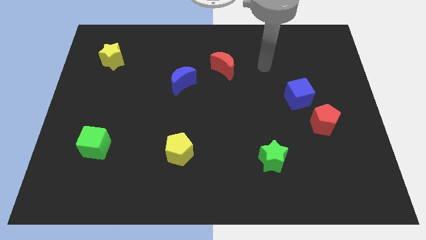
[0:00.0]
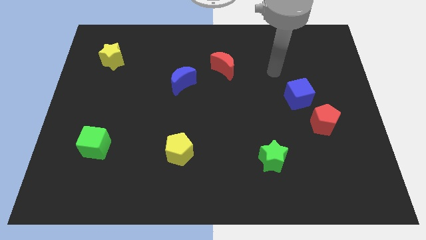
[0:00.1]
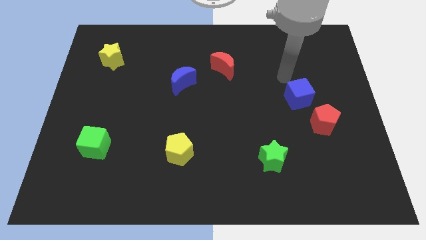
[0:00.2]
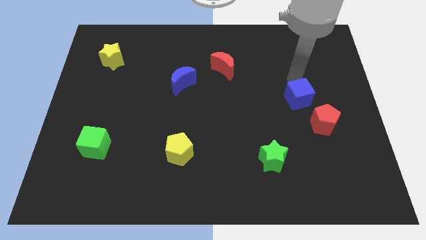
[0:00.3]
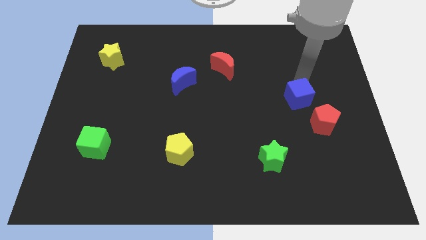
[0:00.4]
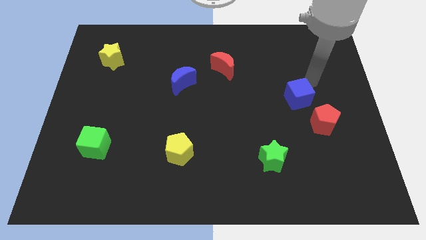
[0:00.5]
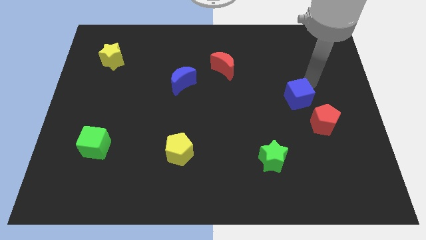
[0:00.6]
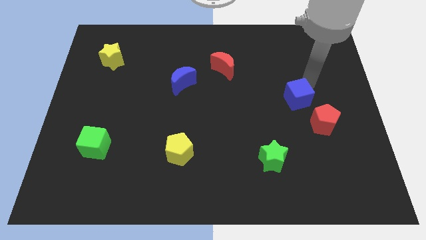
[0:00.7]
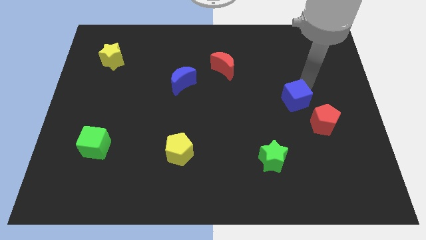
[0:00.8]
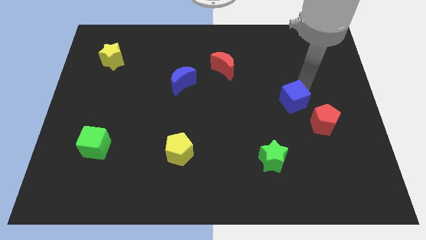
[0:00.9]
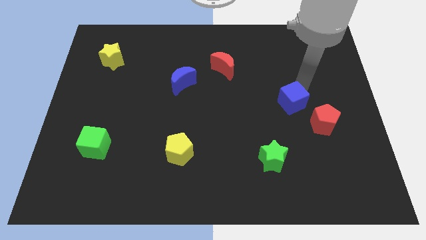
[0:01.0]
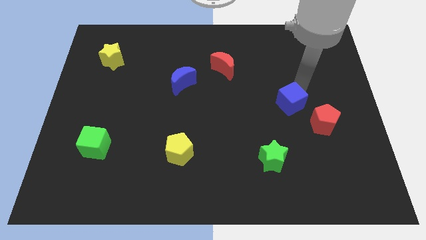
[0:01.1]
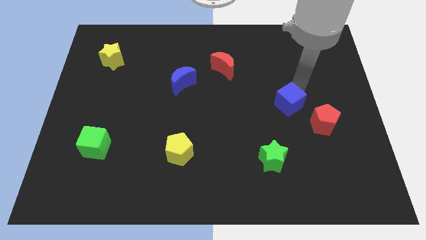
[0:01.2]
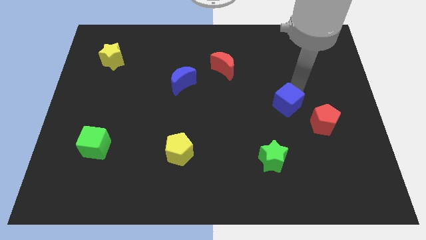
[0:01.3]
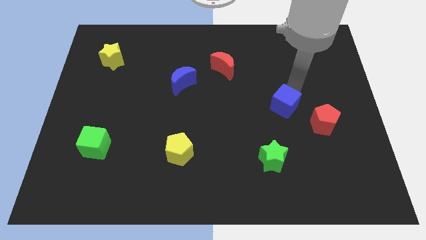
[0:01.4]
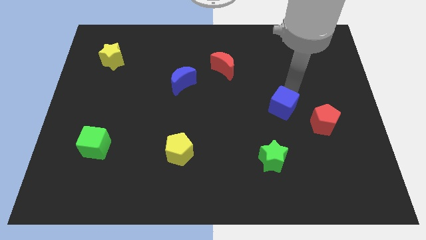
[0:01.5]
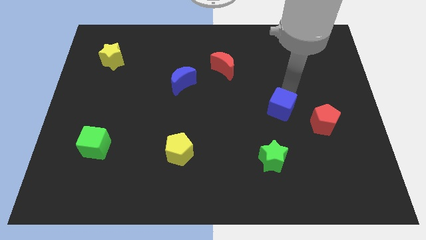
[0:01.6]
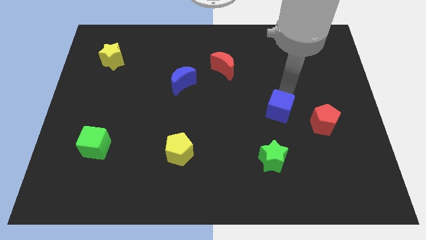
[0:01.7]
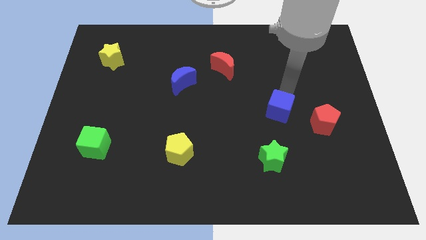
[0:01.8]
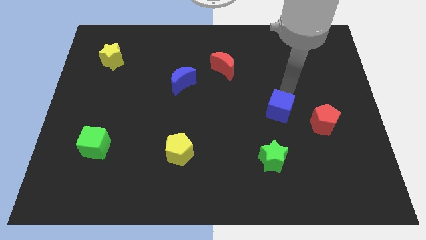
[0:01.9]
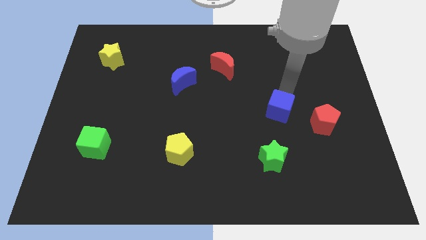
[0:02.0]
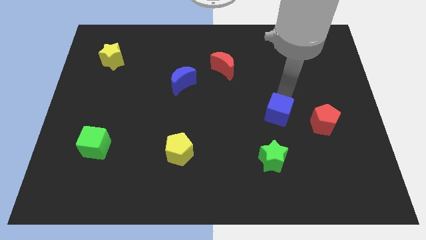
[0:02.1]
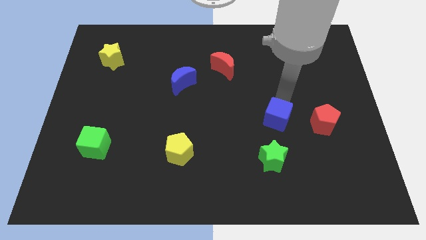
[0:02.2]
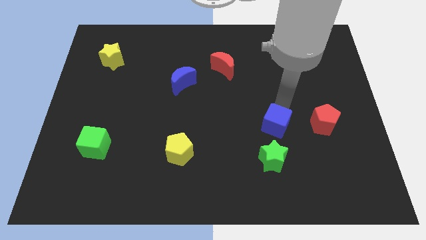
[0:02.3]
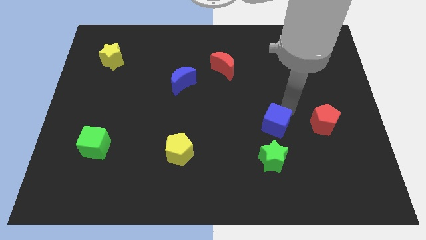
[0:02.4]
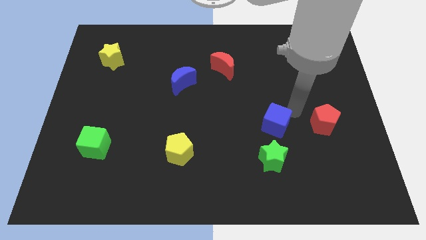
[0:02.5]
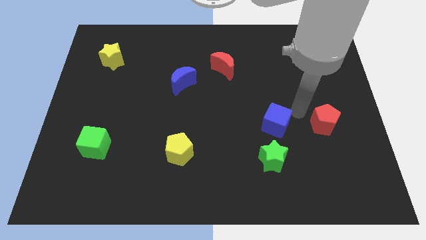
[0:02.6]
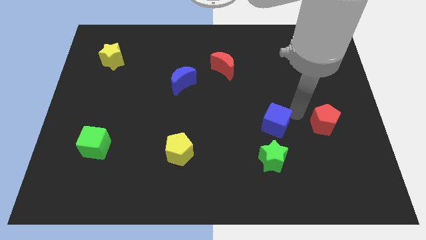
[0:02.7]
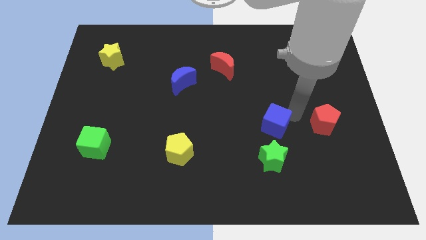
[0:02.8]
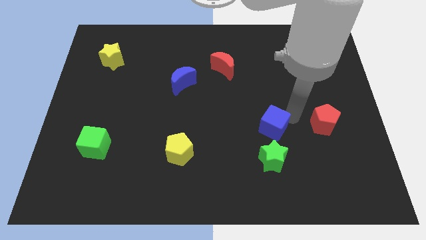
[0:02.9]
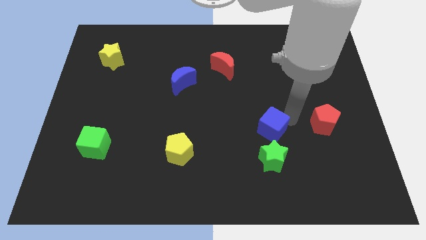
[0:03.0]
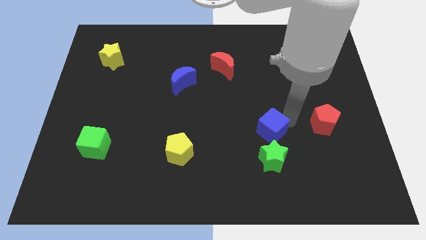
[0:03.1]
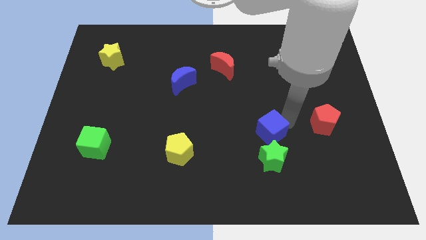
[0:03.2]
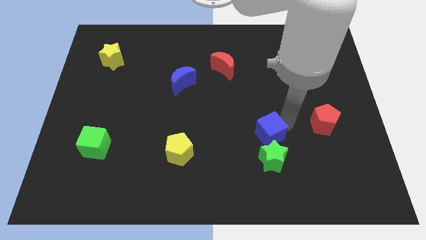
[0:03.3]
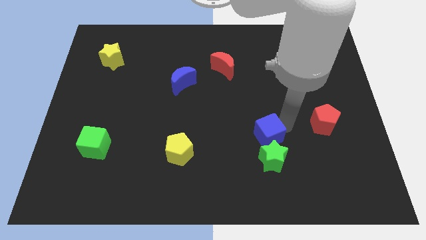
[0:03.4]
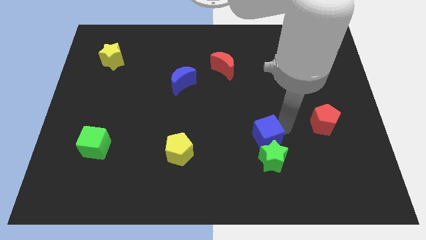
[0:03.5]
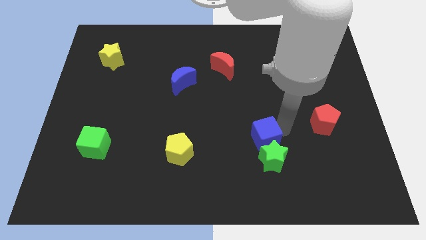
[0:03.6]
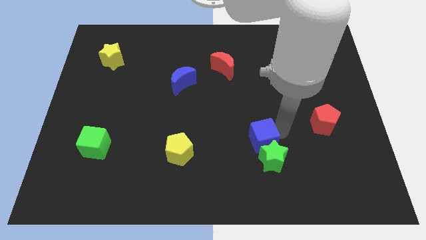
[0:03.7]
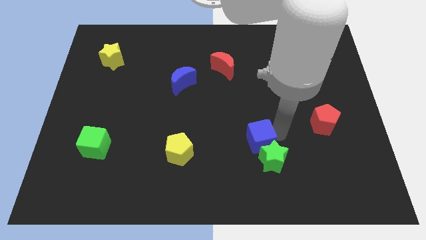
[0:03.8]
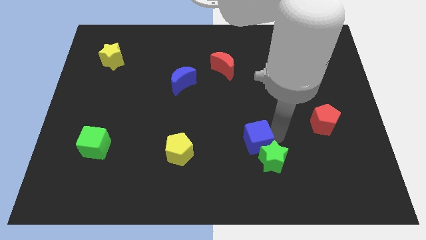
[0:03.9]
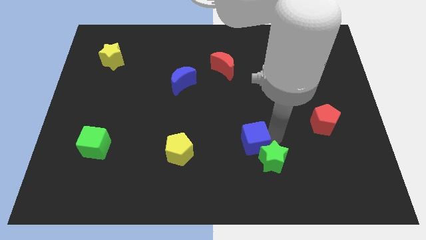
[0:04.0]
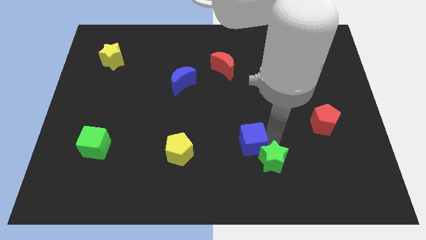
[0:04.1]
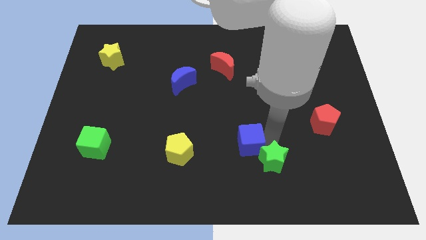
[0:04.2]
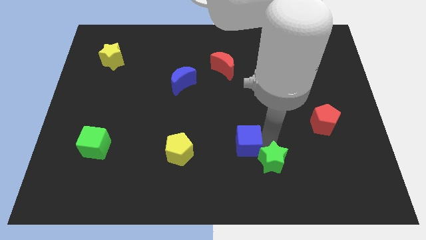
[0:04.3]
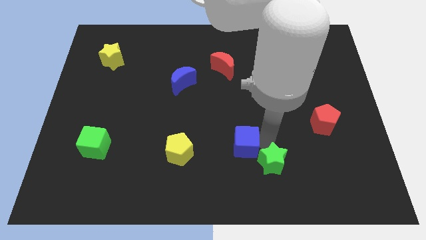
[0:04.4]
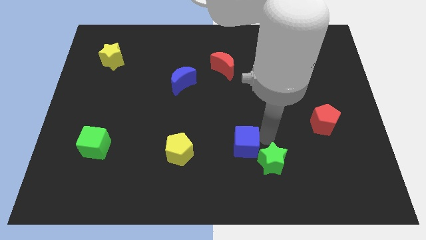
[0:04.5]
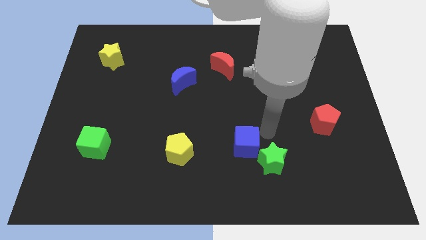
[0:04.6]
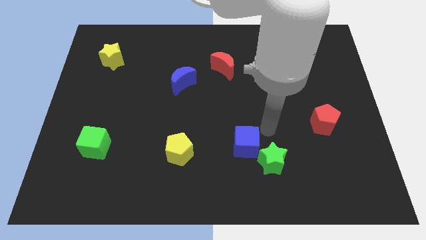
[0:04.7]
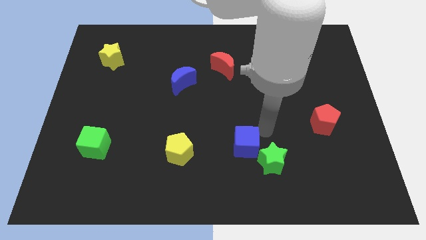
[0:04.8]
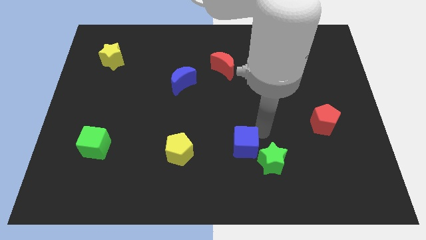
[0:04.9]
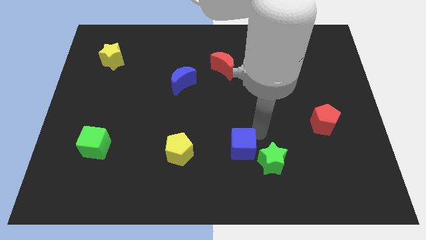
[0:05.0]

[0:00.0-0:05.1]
move the blue cube down and to the left

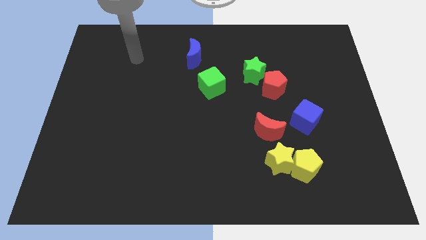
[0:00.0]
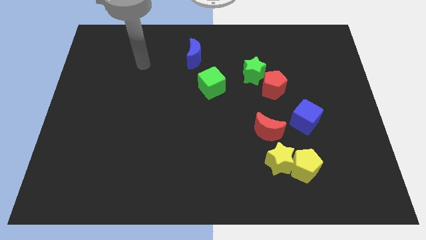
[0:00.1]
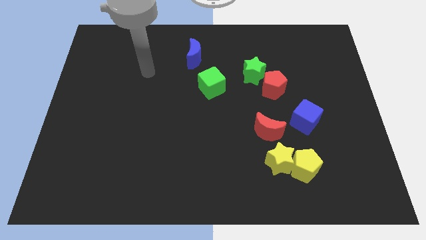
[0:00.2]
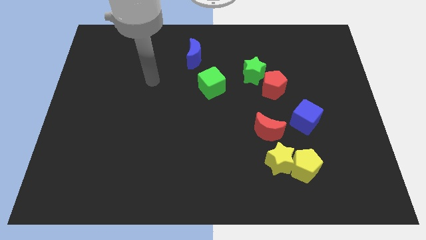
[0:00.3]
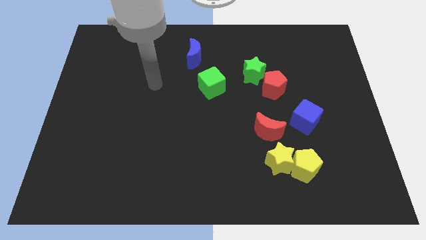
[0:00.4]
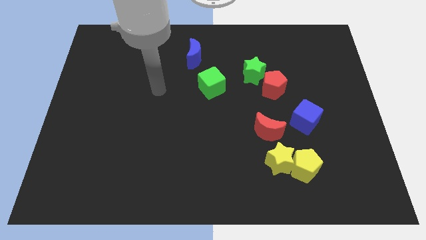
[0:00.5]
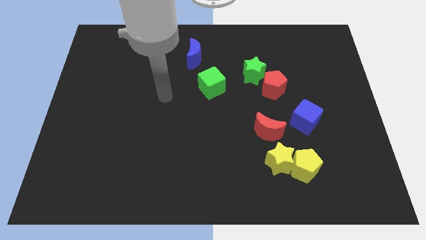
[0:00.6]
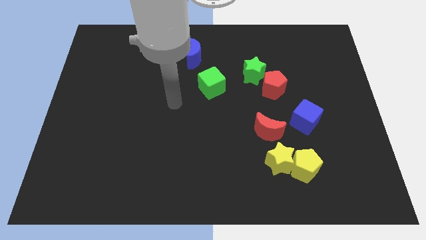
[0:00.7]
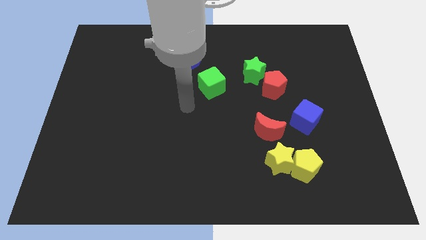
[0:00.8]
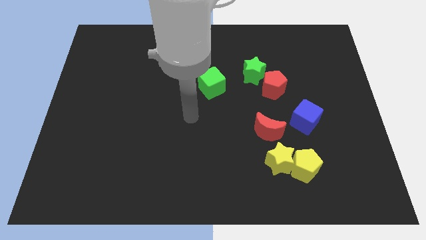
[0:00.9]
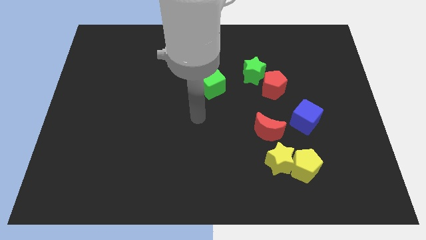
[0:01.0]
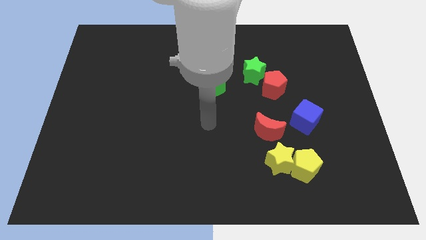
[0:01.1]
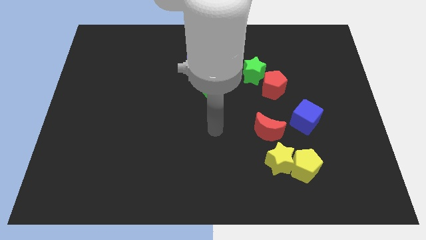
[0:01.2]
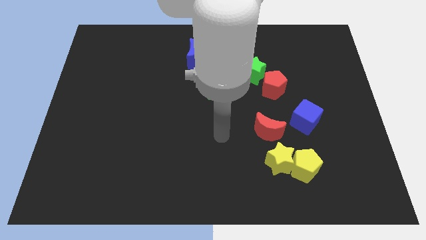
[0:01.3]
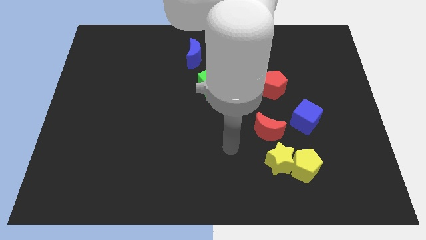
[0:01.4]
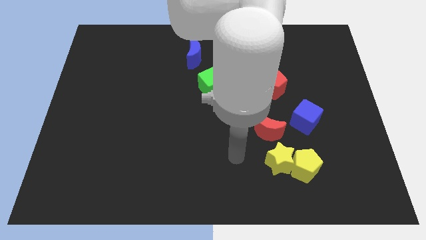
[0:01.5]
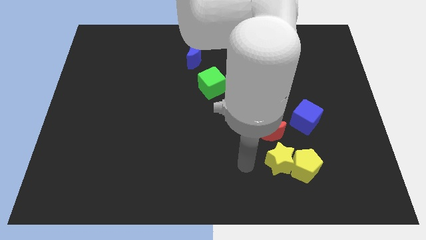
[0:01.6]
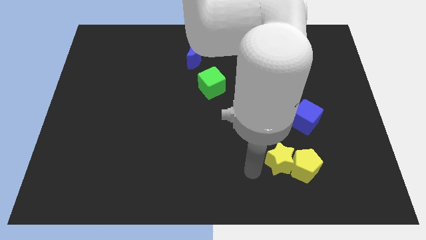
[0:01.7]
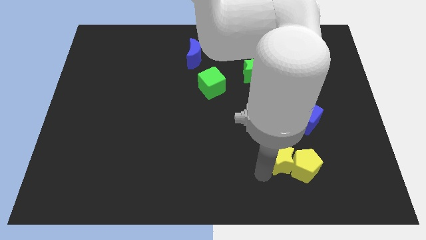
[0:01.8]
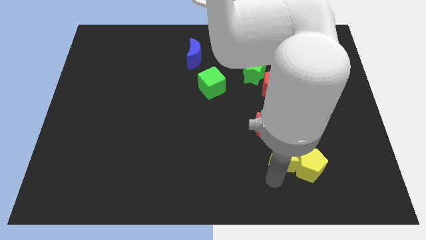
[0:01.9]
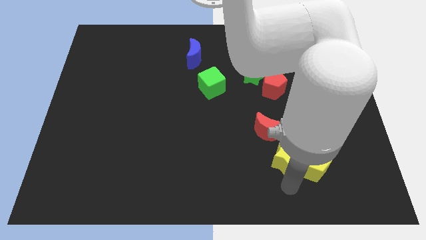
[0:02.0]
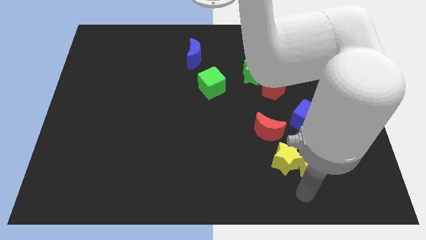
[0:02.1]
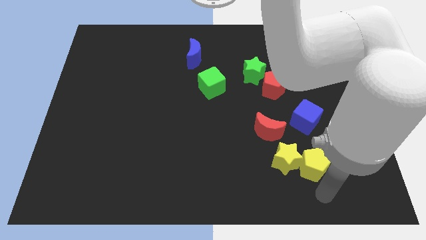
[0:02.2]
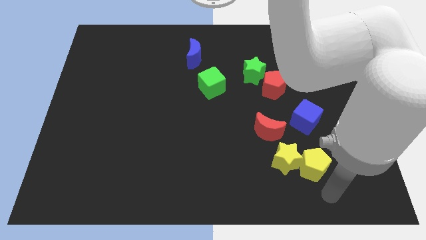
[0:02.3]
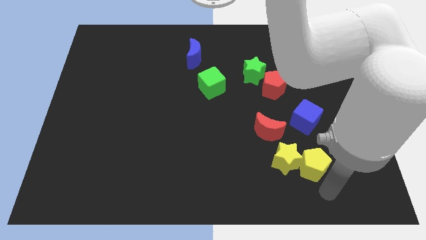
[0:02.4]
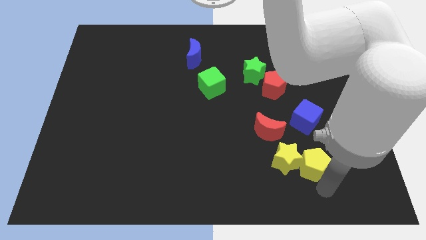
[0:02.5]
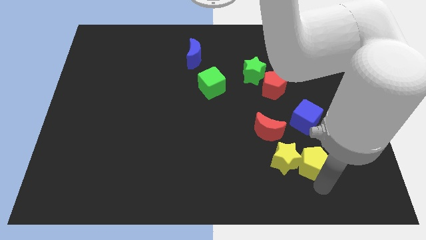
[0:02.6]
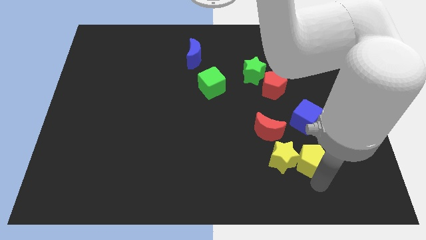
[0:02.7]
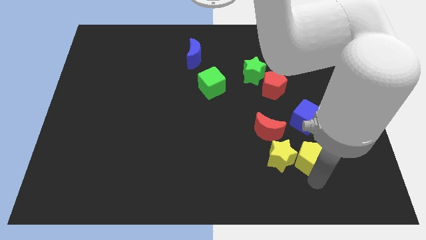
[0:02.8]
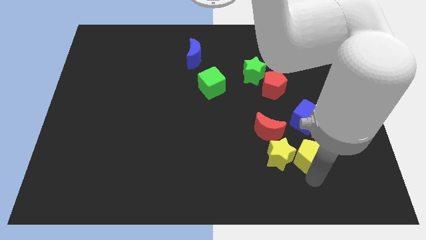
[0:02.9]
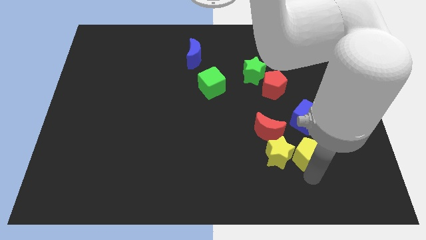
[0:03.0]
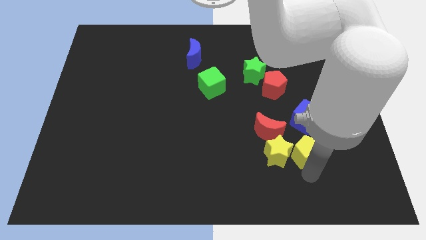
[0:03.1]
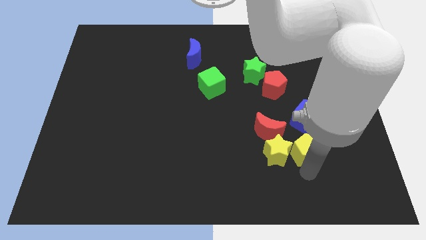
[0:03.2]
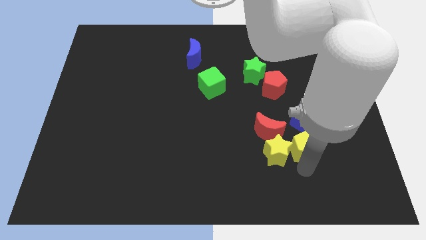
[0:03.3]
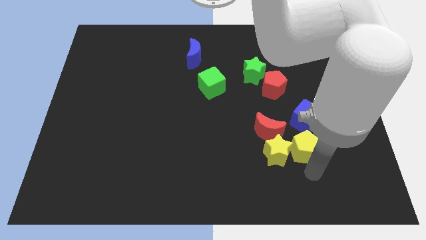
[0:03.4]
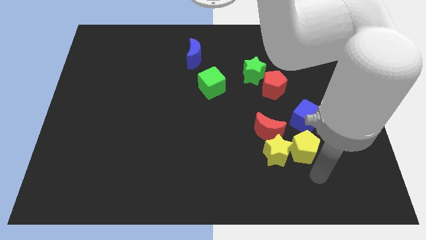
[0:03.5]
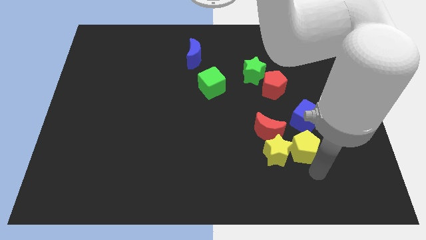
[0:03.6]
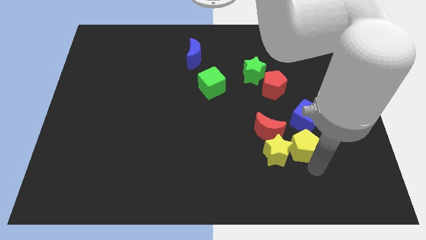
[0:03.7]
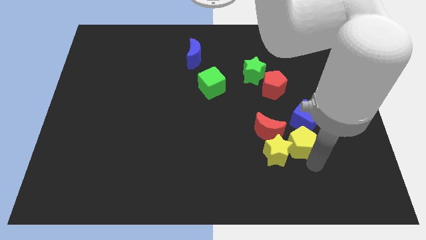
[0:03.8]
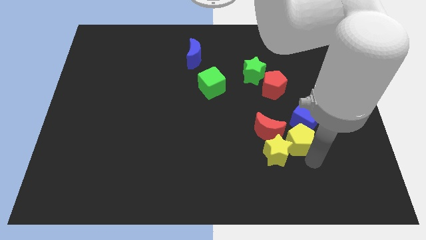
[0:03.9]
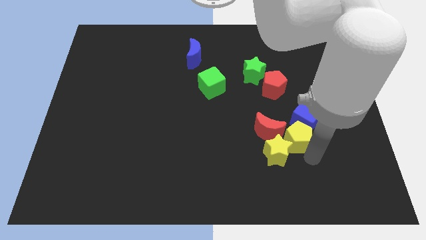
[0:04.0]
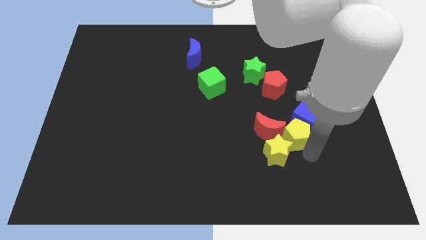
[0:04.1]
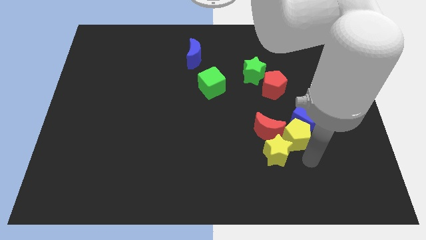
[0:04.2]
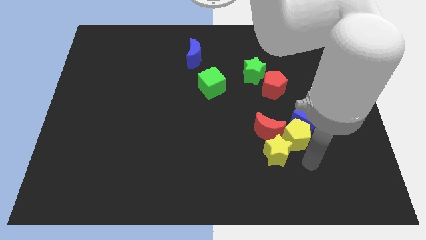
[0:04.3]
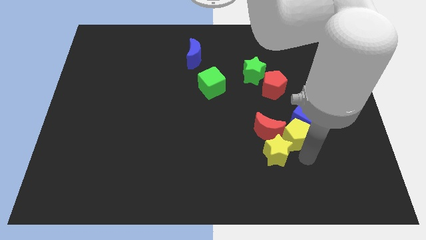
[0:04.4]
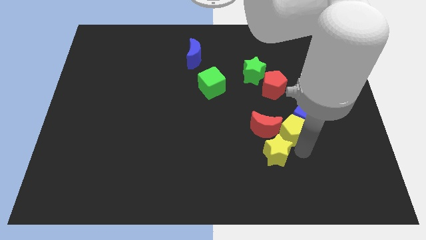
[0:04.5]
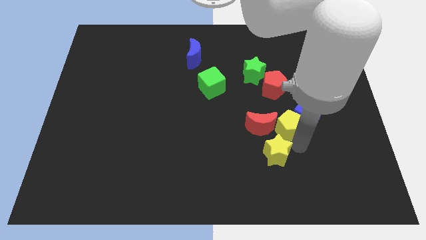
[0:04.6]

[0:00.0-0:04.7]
slightly move the yellow pentagon up and then left
